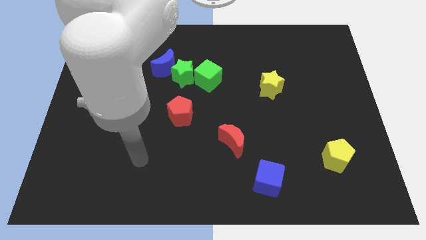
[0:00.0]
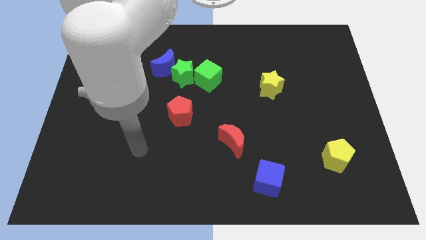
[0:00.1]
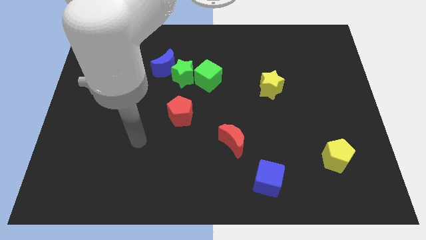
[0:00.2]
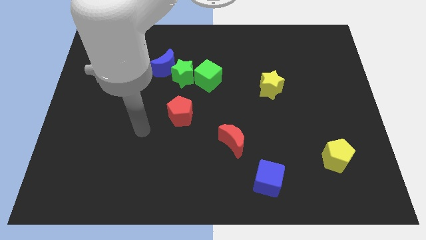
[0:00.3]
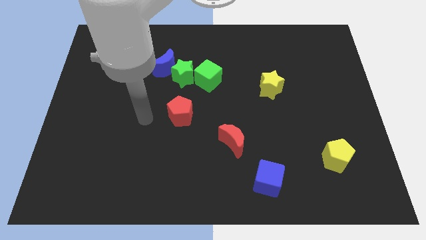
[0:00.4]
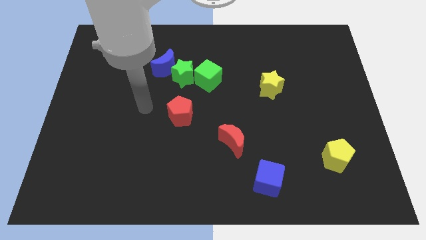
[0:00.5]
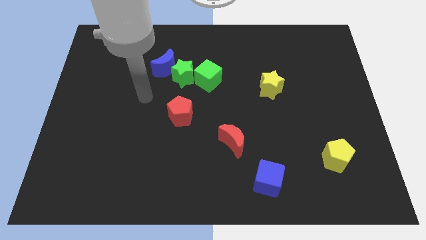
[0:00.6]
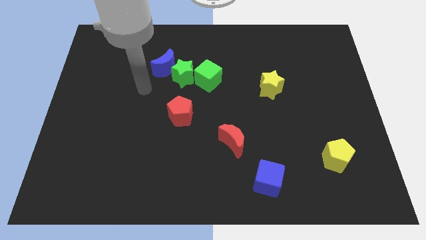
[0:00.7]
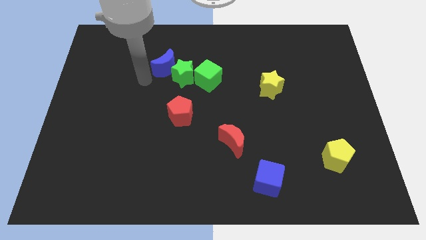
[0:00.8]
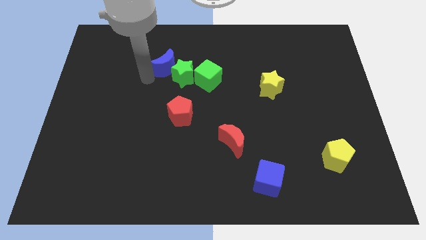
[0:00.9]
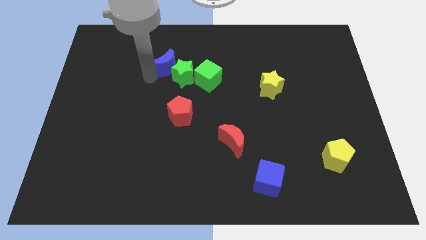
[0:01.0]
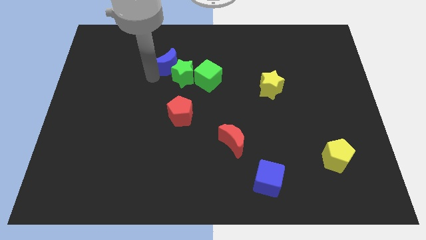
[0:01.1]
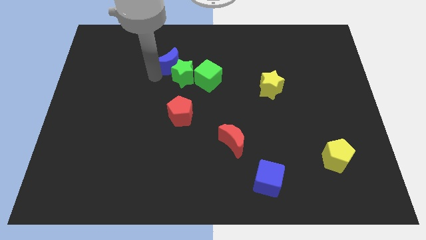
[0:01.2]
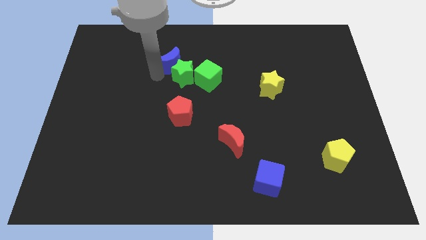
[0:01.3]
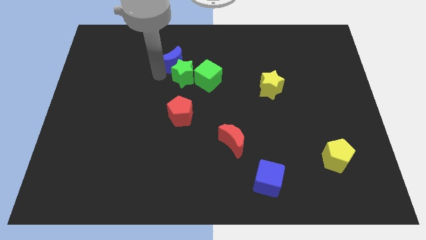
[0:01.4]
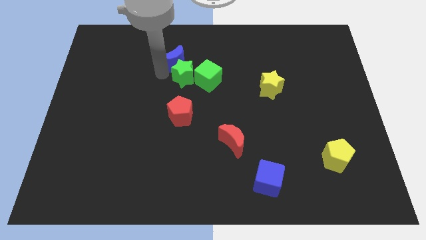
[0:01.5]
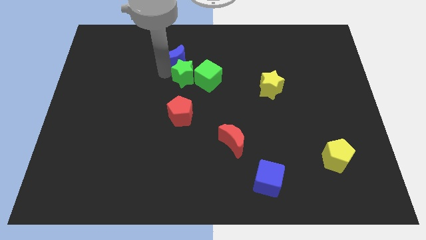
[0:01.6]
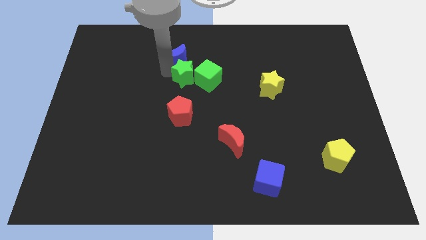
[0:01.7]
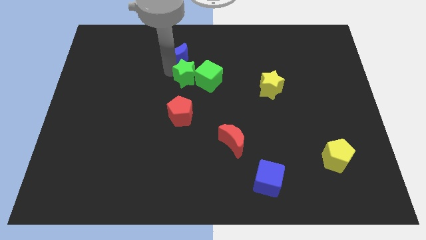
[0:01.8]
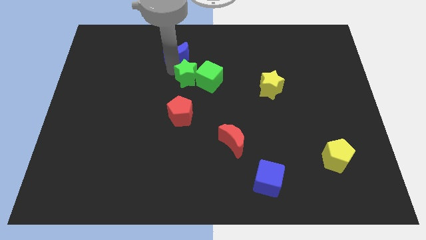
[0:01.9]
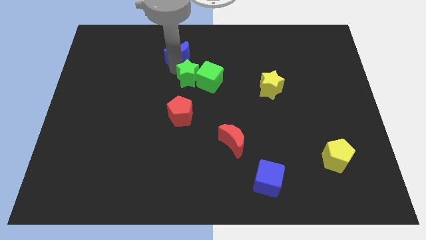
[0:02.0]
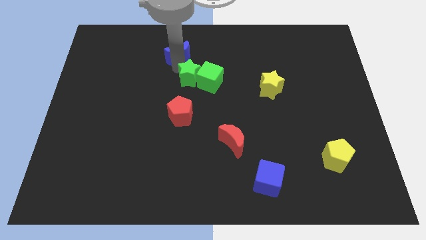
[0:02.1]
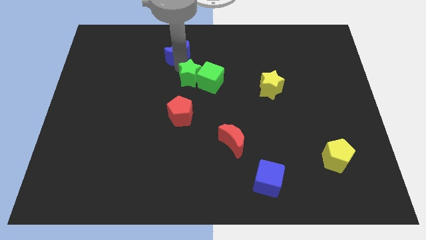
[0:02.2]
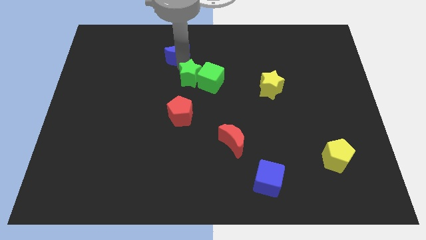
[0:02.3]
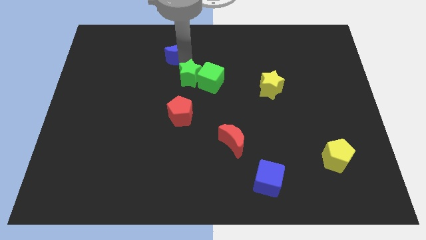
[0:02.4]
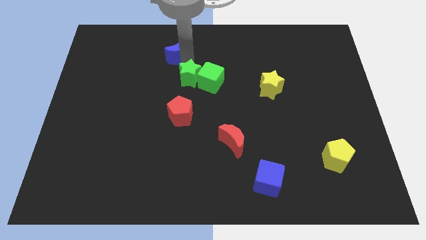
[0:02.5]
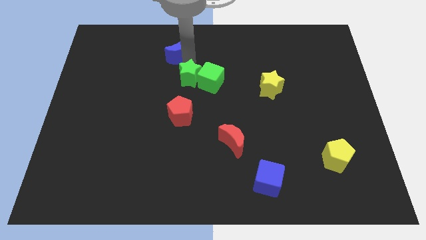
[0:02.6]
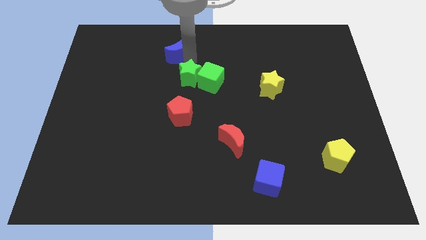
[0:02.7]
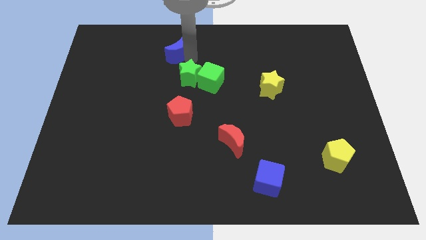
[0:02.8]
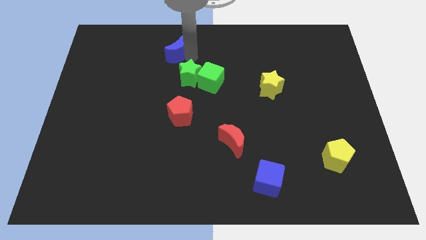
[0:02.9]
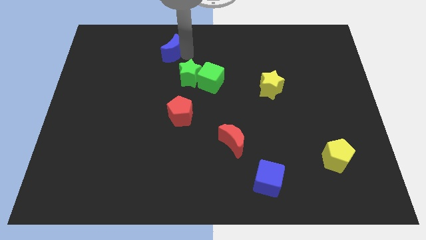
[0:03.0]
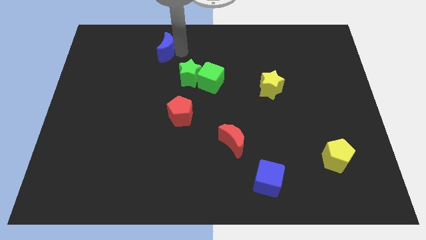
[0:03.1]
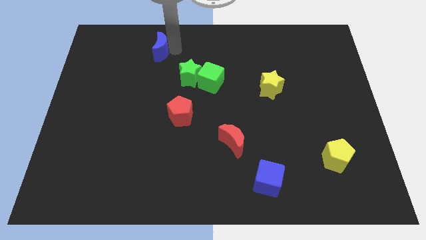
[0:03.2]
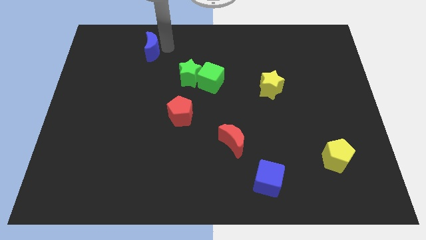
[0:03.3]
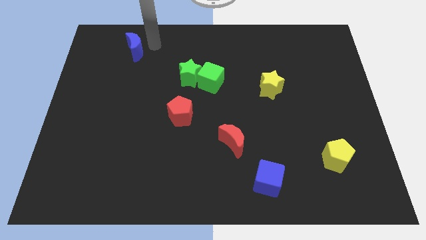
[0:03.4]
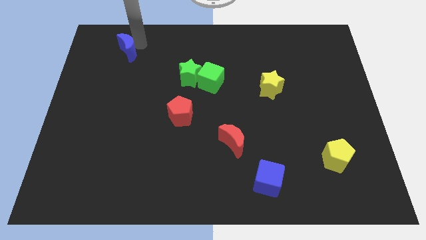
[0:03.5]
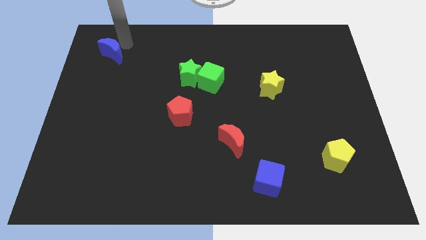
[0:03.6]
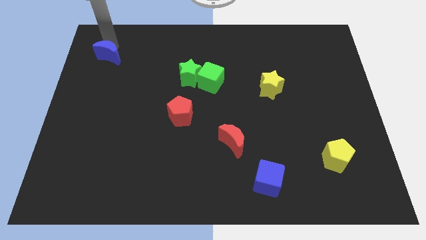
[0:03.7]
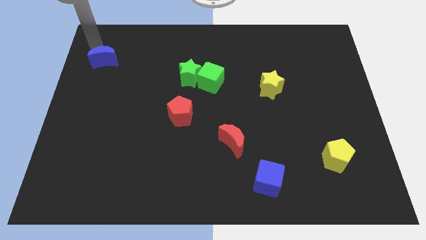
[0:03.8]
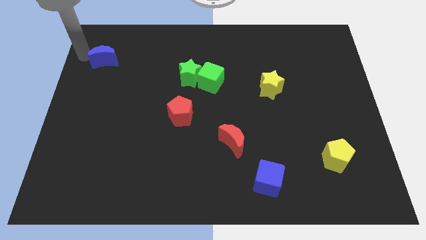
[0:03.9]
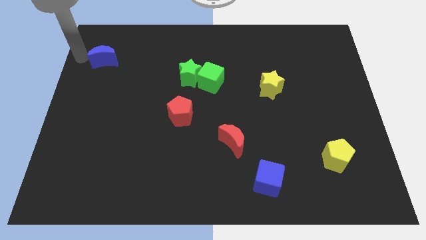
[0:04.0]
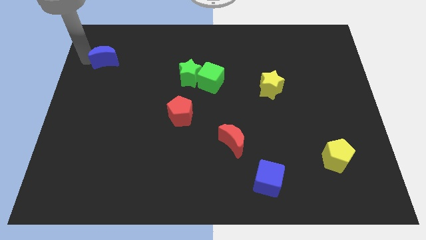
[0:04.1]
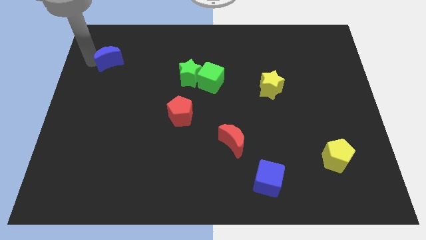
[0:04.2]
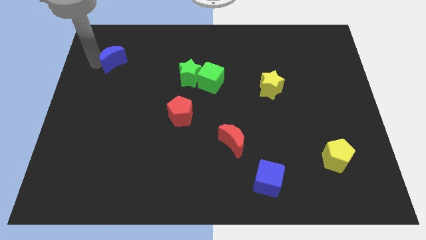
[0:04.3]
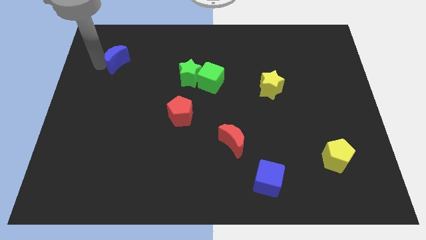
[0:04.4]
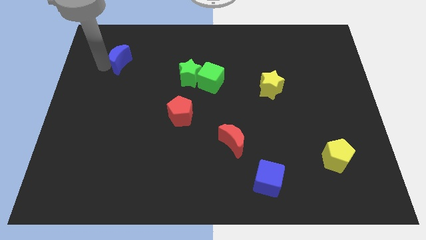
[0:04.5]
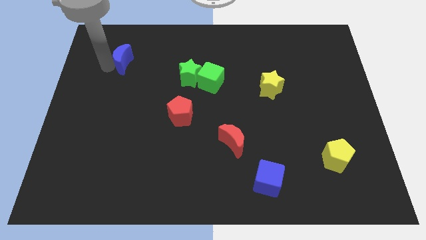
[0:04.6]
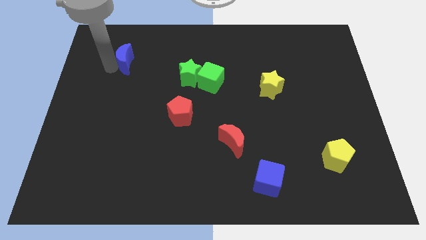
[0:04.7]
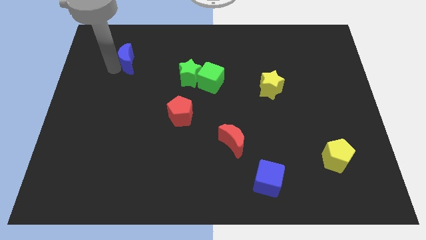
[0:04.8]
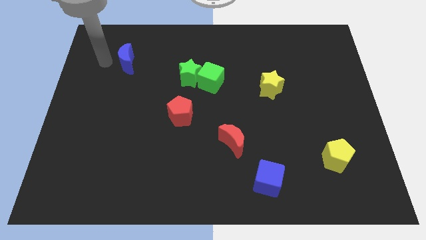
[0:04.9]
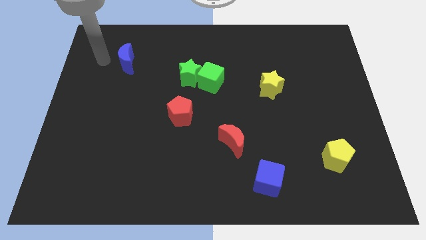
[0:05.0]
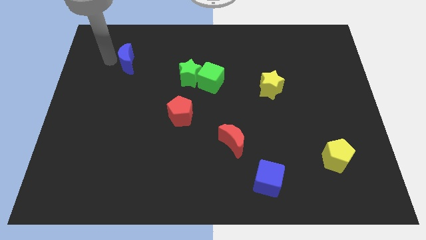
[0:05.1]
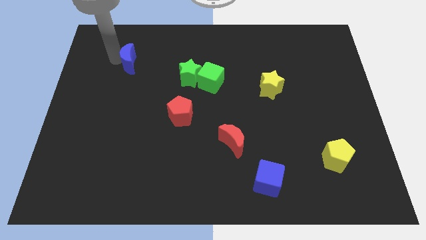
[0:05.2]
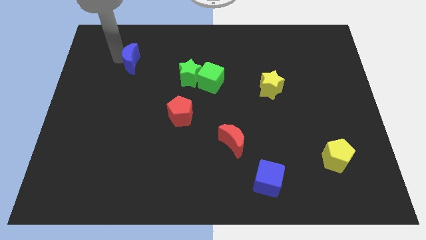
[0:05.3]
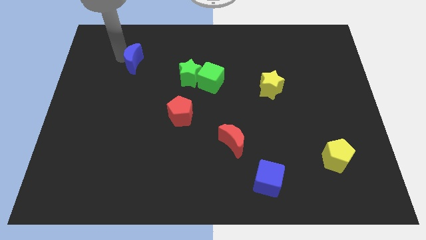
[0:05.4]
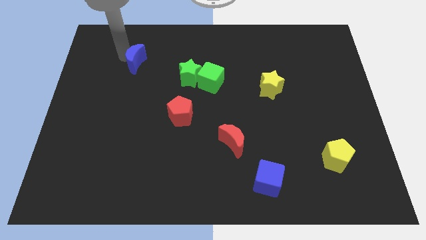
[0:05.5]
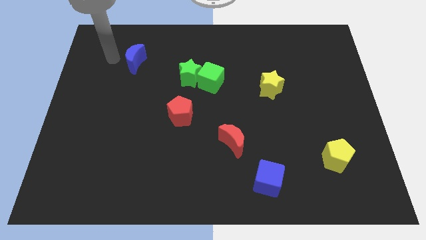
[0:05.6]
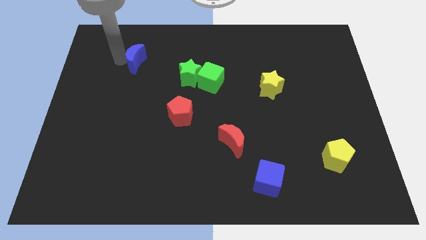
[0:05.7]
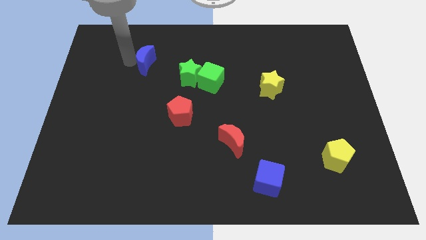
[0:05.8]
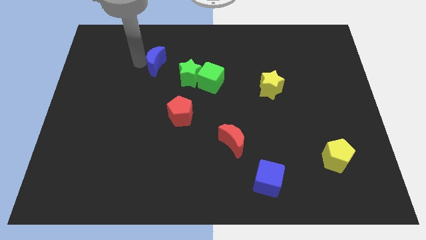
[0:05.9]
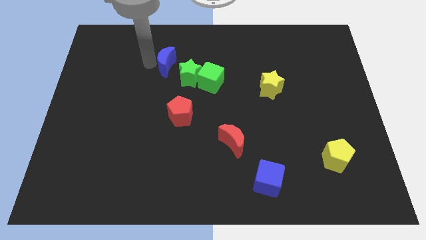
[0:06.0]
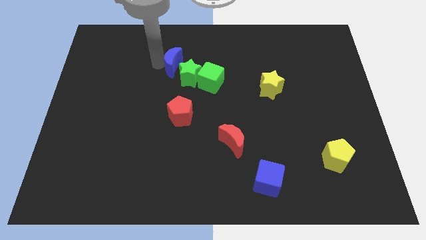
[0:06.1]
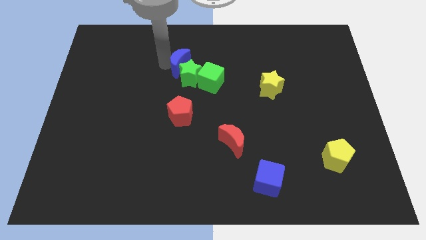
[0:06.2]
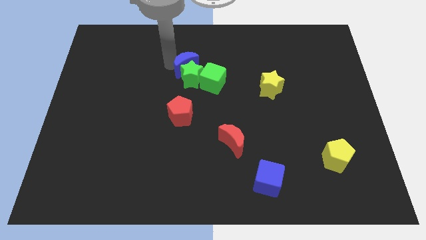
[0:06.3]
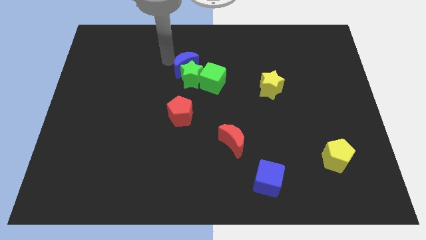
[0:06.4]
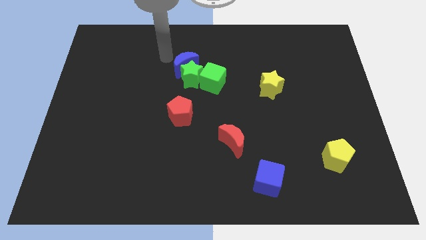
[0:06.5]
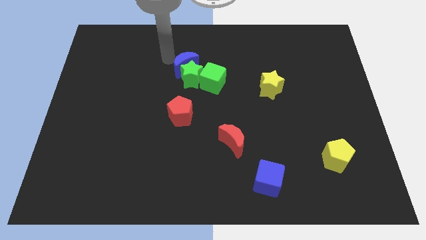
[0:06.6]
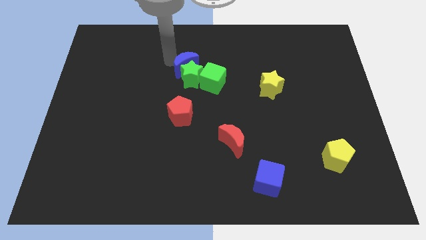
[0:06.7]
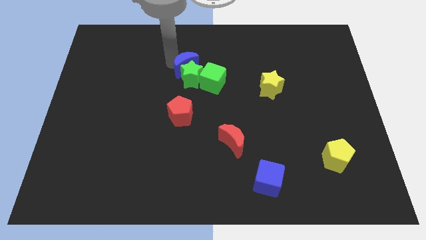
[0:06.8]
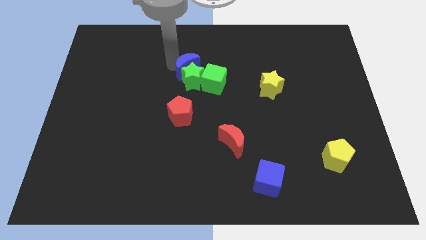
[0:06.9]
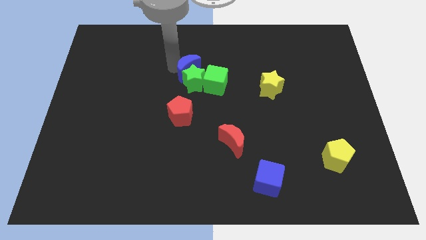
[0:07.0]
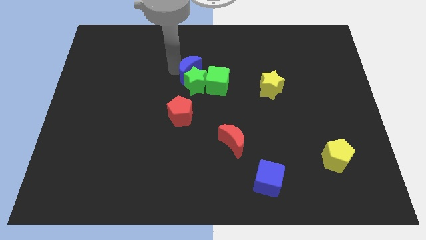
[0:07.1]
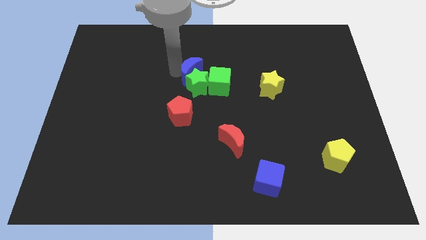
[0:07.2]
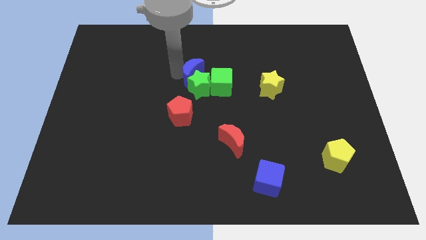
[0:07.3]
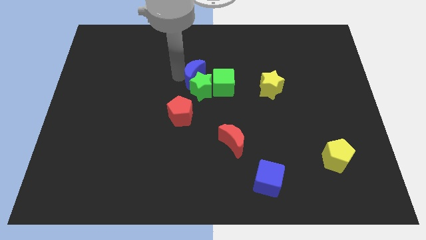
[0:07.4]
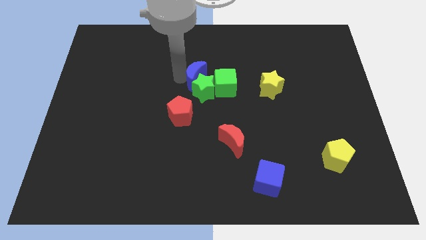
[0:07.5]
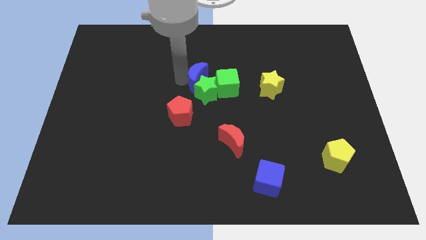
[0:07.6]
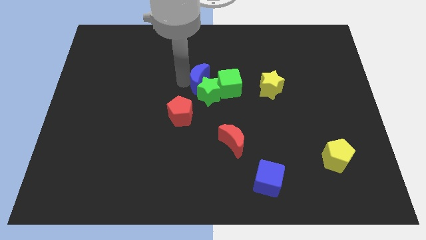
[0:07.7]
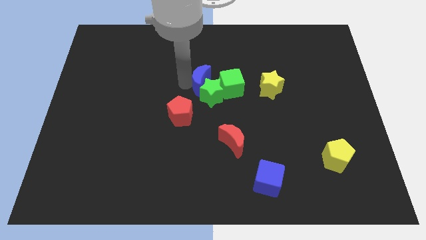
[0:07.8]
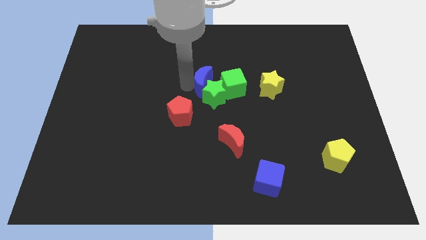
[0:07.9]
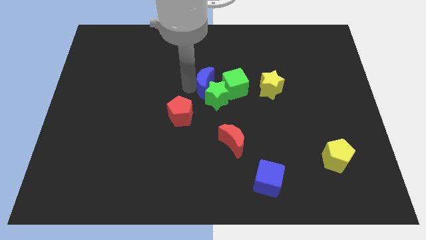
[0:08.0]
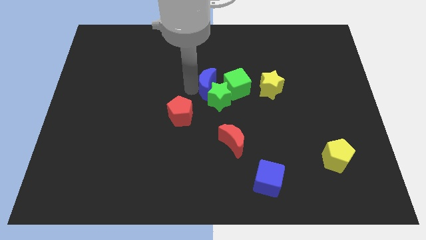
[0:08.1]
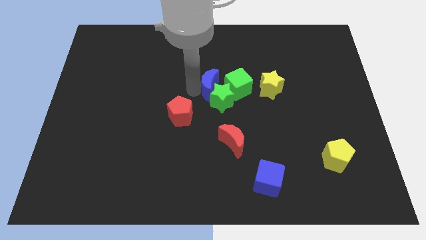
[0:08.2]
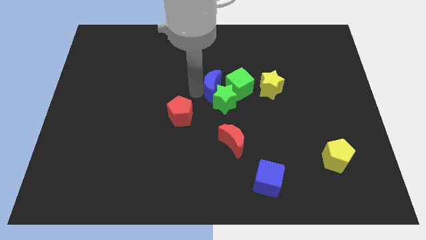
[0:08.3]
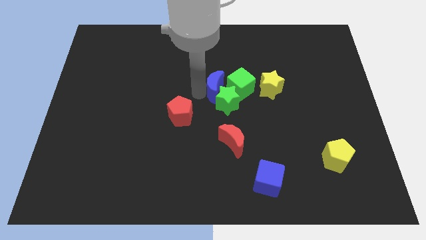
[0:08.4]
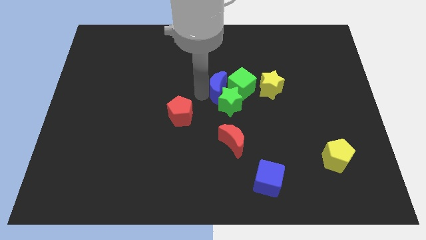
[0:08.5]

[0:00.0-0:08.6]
push the blue moon towards the green cube
